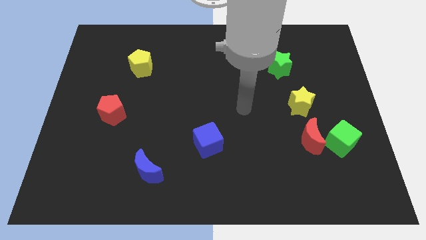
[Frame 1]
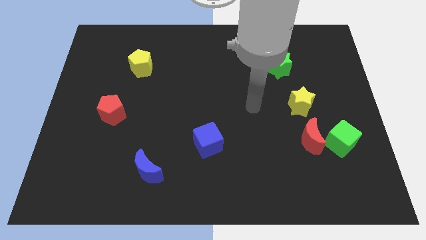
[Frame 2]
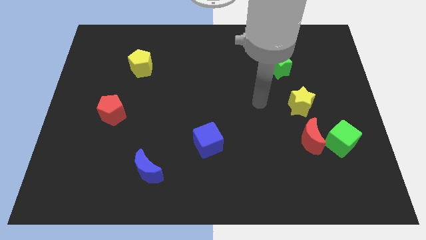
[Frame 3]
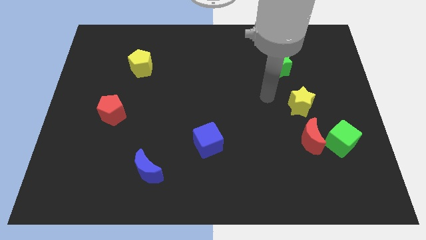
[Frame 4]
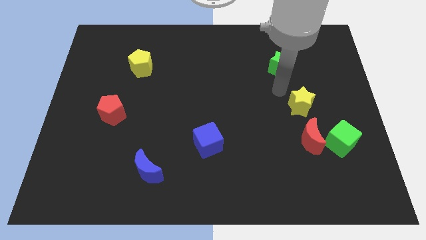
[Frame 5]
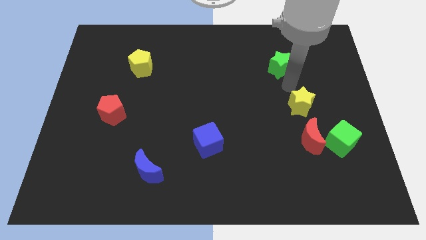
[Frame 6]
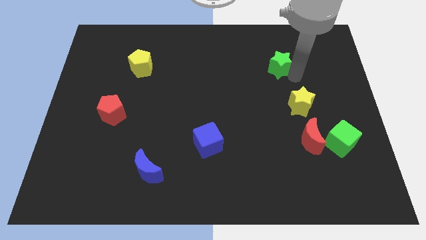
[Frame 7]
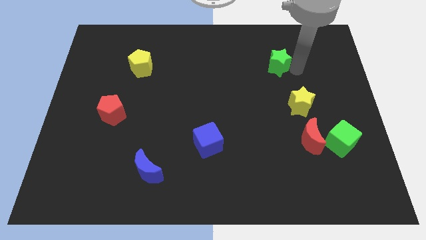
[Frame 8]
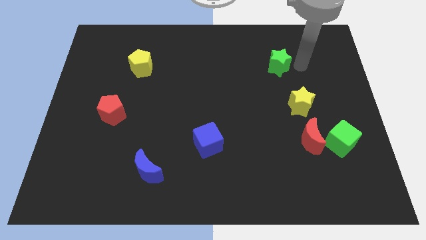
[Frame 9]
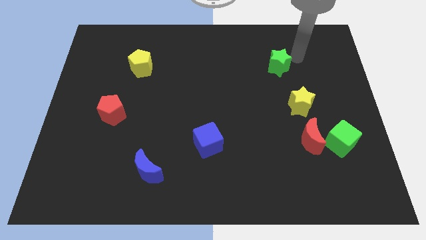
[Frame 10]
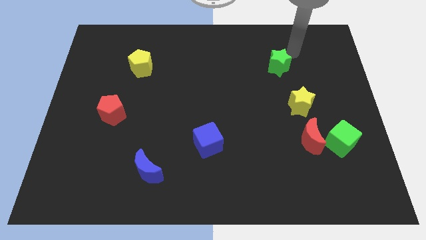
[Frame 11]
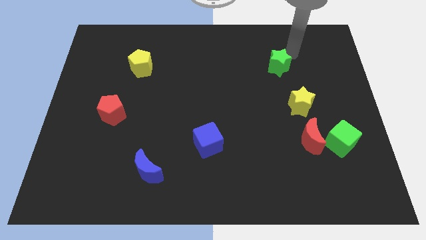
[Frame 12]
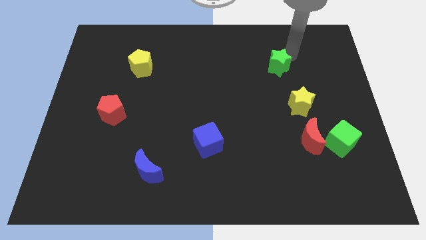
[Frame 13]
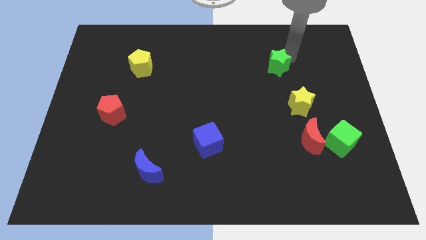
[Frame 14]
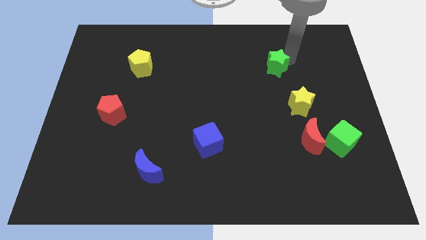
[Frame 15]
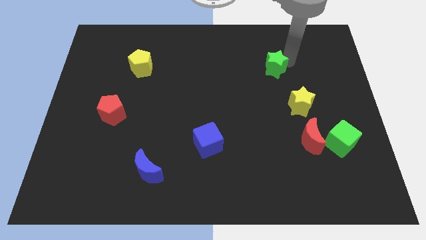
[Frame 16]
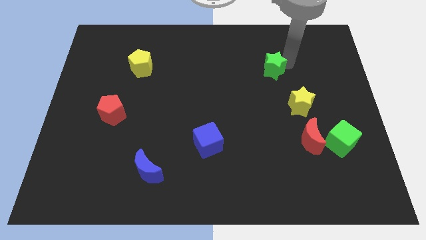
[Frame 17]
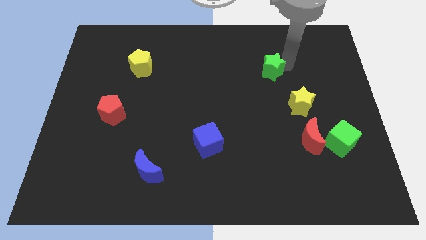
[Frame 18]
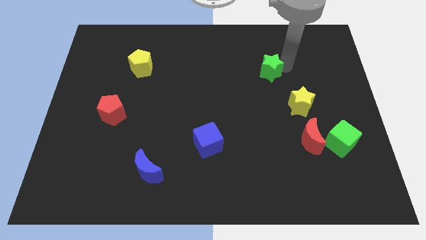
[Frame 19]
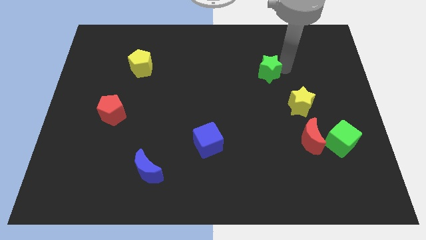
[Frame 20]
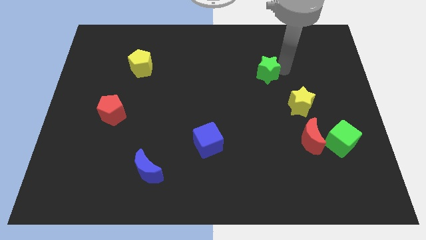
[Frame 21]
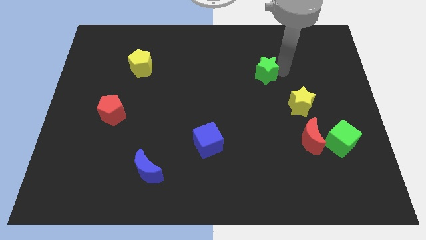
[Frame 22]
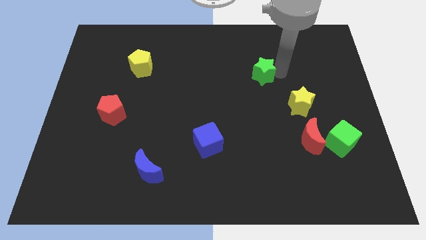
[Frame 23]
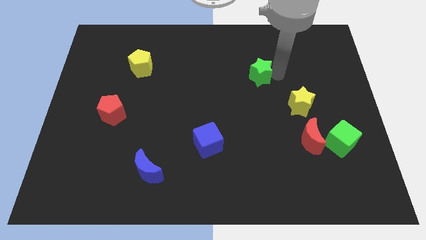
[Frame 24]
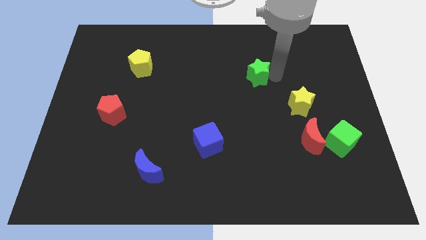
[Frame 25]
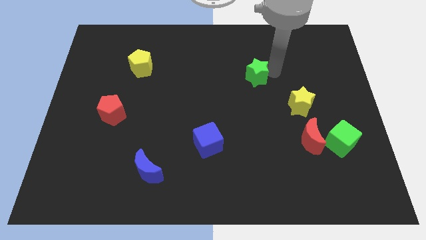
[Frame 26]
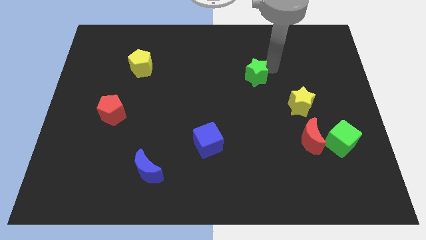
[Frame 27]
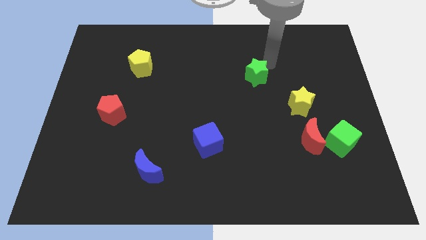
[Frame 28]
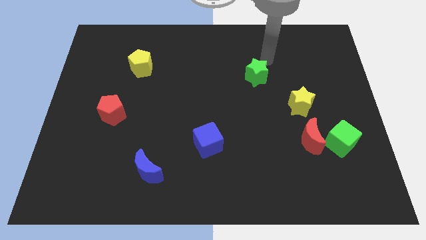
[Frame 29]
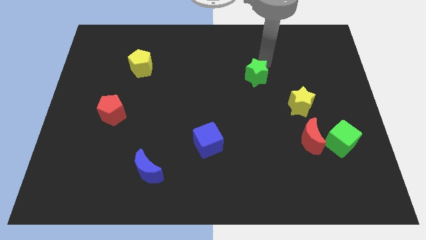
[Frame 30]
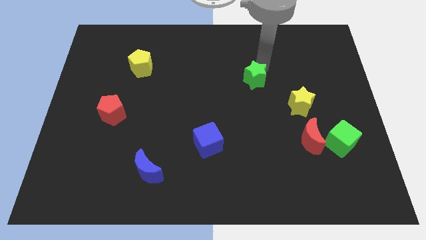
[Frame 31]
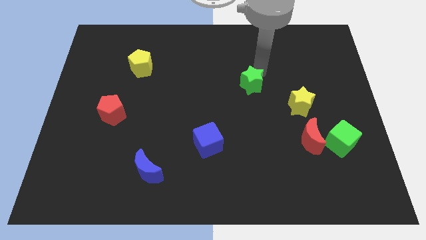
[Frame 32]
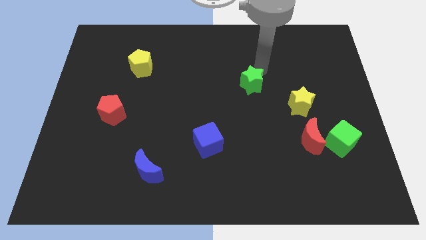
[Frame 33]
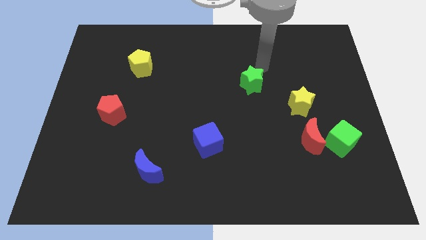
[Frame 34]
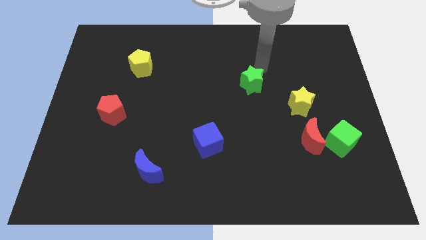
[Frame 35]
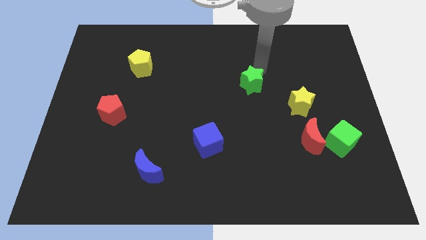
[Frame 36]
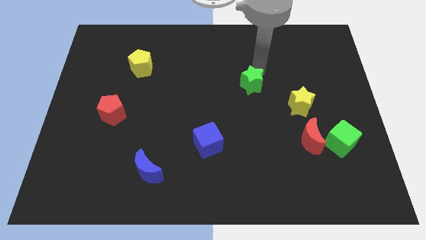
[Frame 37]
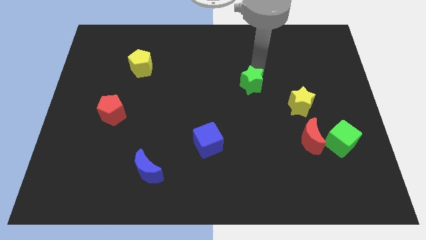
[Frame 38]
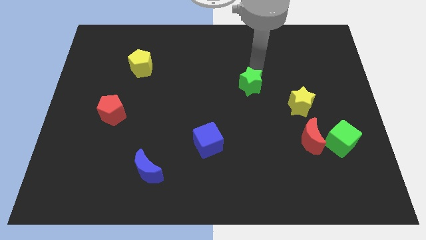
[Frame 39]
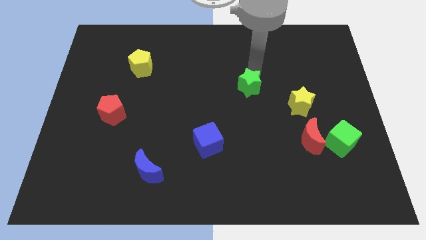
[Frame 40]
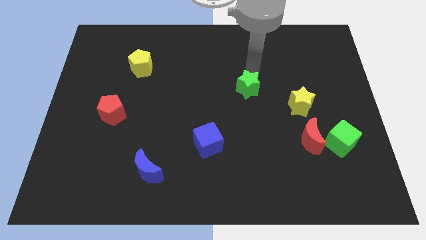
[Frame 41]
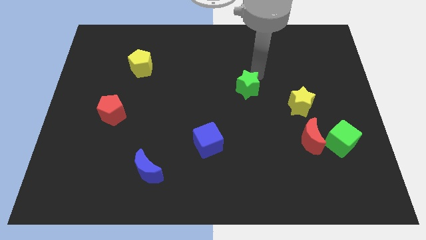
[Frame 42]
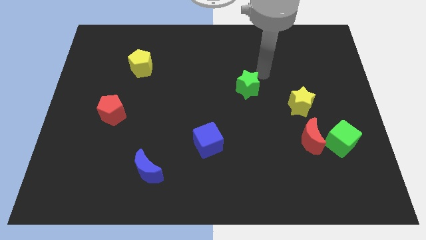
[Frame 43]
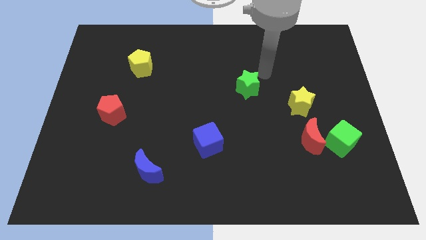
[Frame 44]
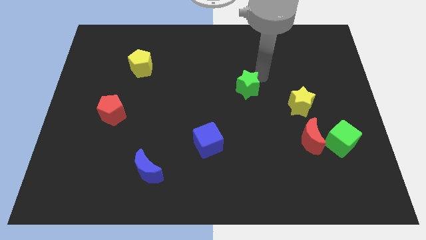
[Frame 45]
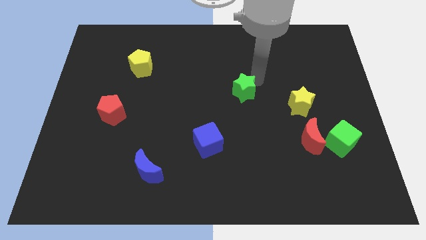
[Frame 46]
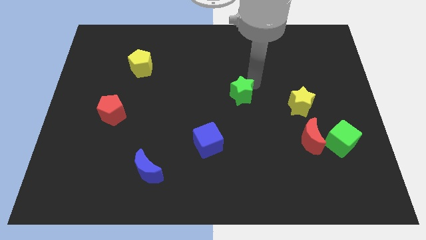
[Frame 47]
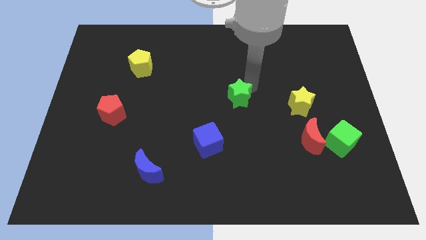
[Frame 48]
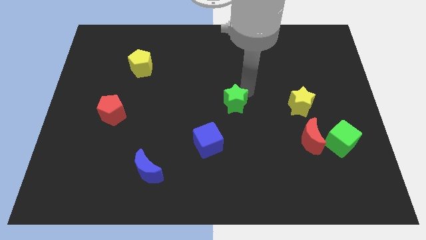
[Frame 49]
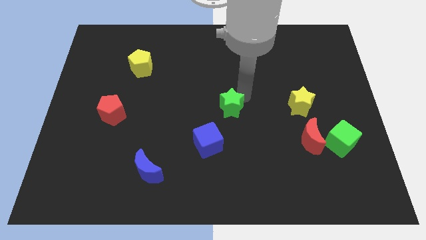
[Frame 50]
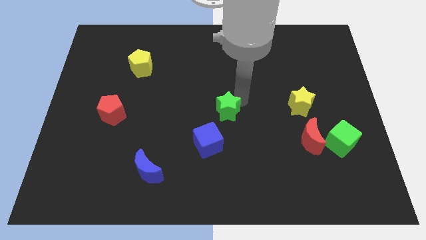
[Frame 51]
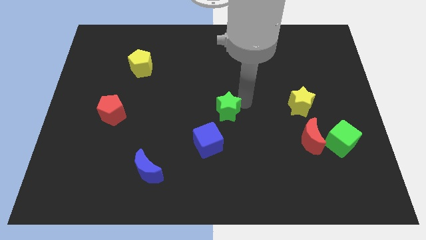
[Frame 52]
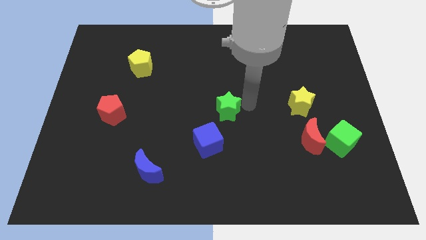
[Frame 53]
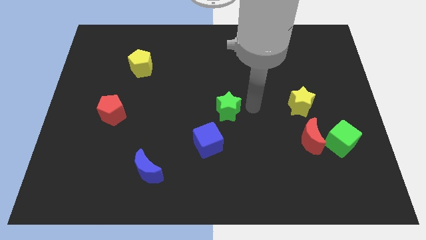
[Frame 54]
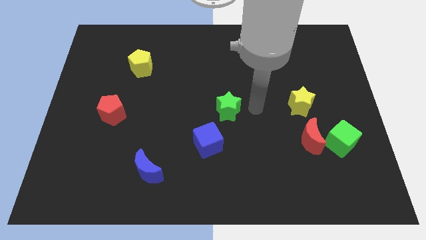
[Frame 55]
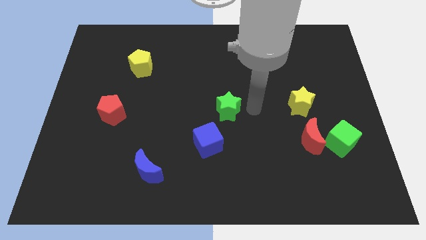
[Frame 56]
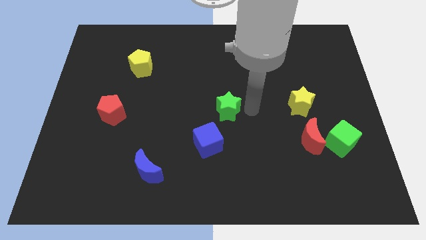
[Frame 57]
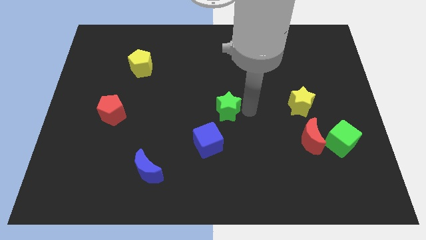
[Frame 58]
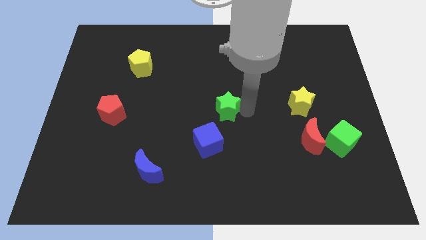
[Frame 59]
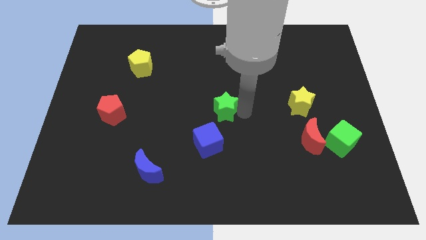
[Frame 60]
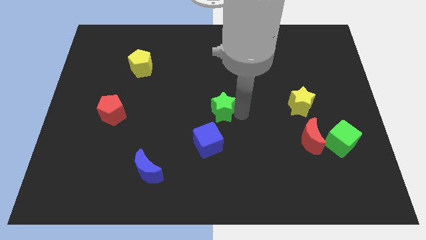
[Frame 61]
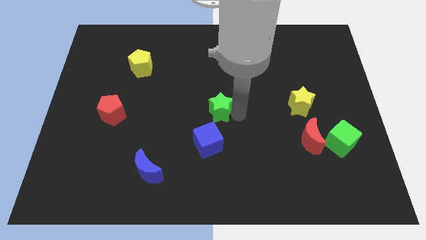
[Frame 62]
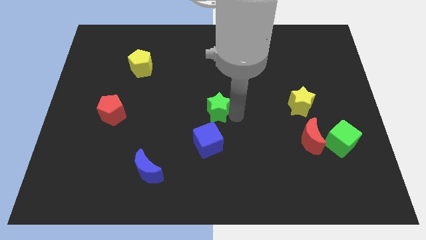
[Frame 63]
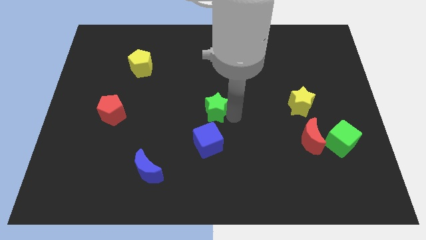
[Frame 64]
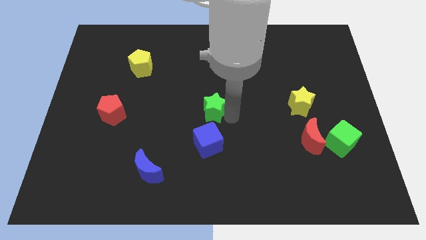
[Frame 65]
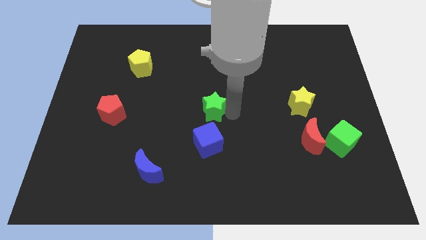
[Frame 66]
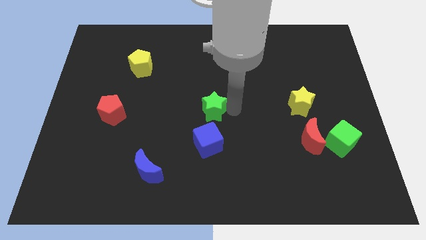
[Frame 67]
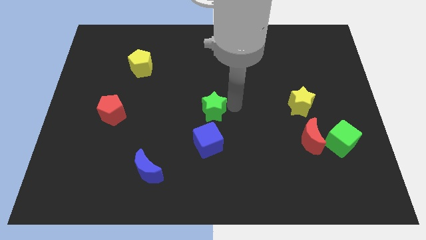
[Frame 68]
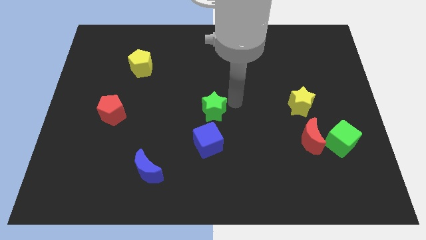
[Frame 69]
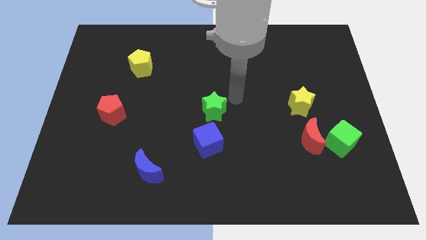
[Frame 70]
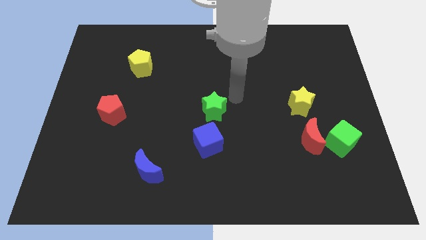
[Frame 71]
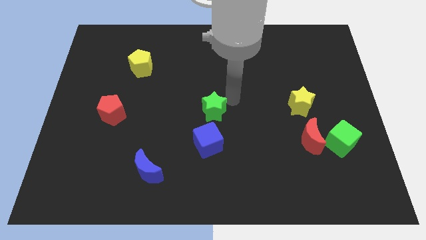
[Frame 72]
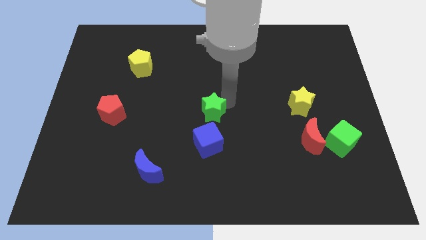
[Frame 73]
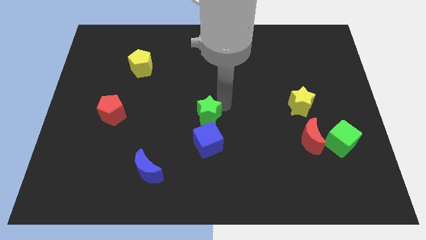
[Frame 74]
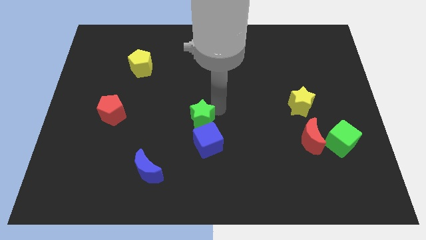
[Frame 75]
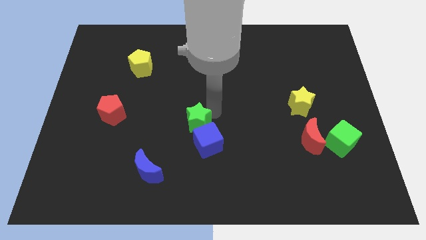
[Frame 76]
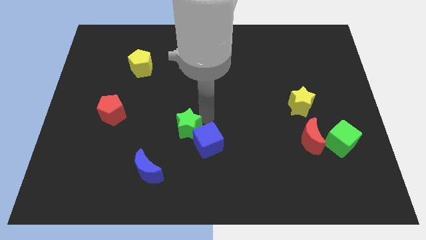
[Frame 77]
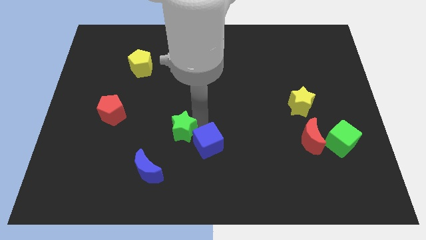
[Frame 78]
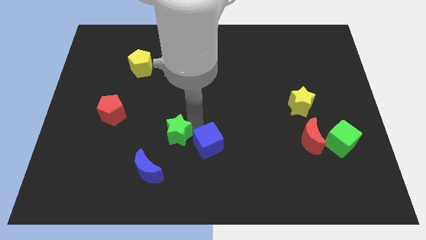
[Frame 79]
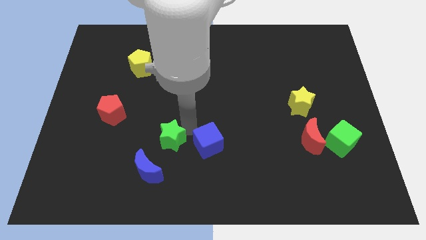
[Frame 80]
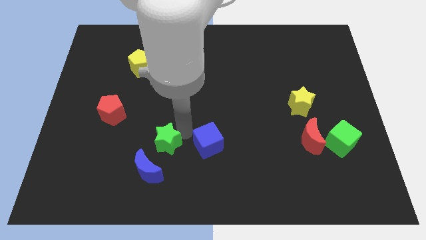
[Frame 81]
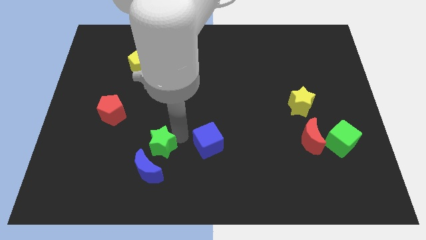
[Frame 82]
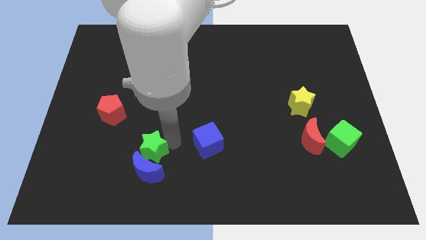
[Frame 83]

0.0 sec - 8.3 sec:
slide the green star to the top left side of the blue moon
